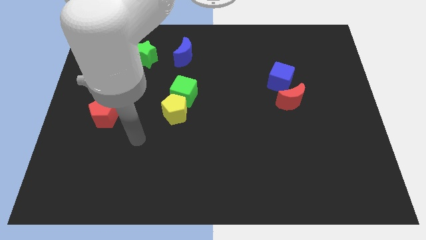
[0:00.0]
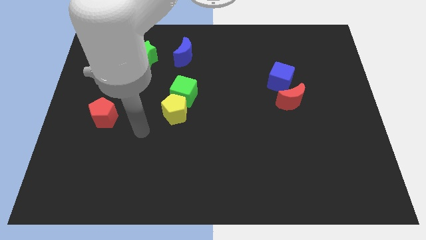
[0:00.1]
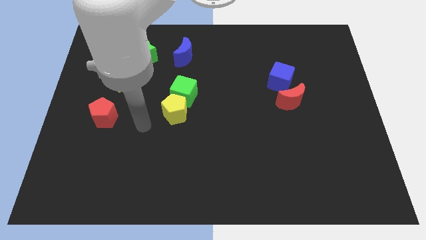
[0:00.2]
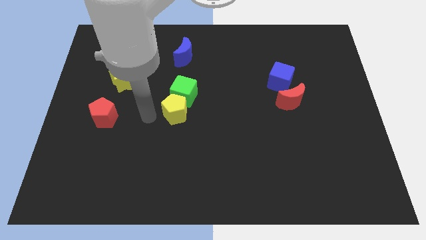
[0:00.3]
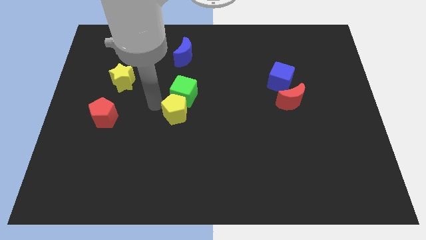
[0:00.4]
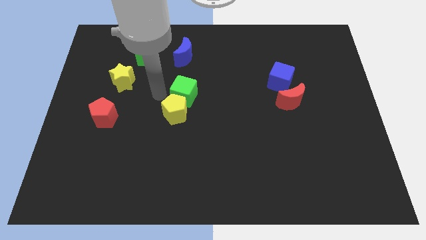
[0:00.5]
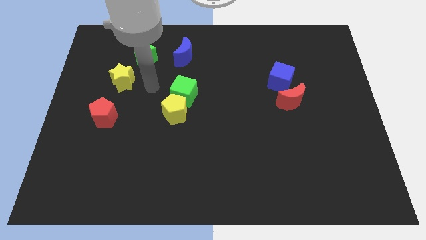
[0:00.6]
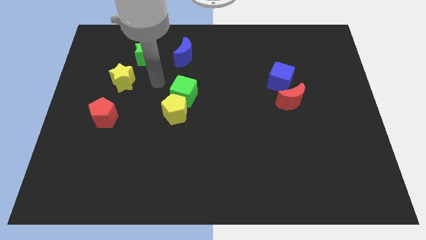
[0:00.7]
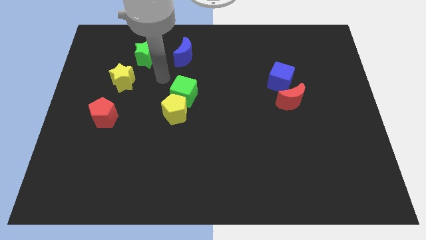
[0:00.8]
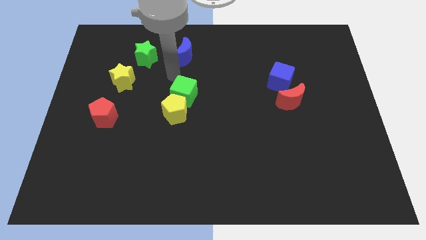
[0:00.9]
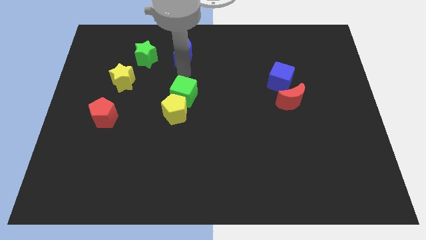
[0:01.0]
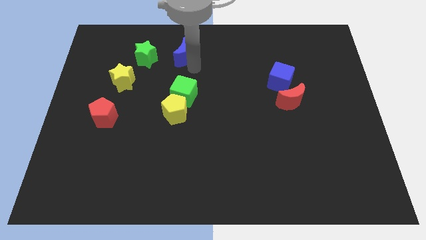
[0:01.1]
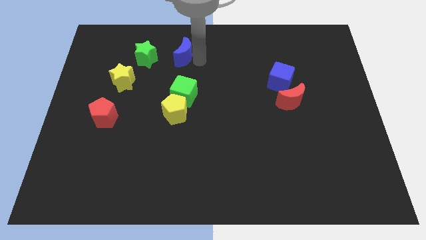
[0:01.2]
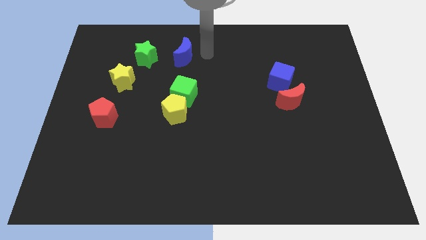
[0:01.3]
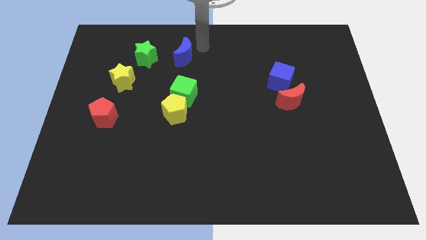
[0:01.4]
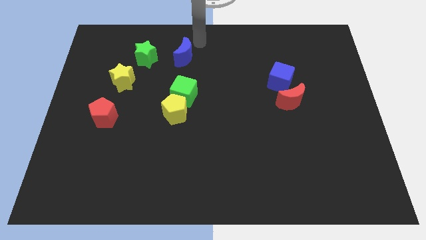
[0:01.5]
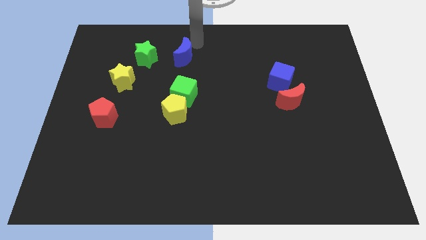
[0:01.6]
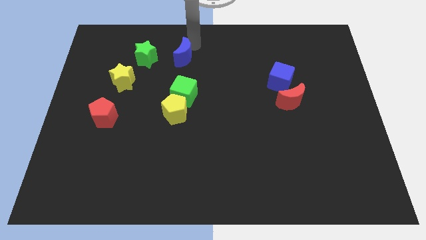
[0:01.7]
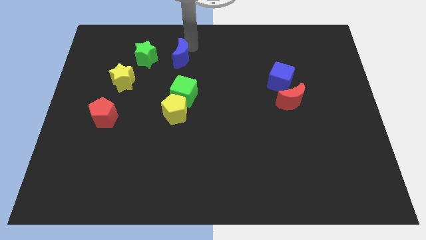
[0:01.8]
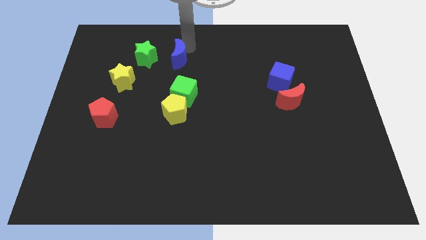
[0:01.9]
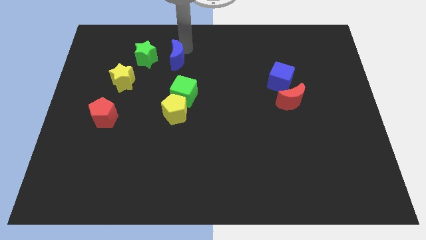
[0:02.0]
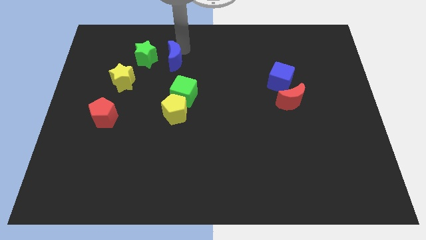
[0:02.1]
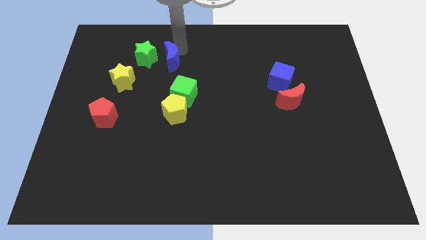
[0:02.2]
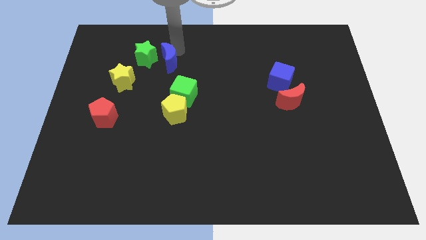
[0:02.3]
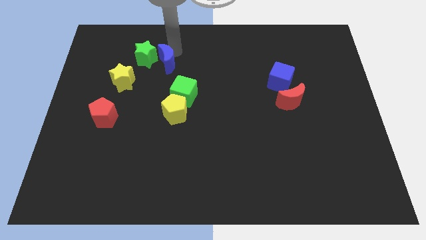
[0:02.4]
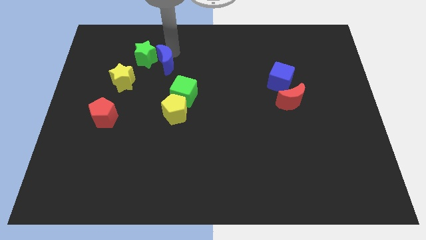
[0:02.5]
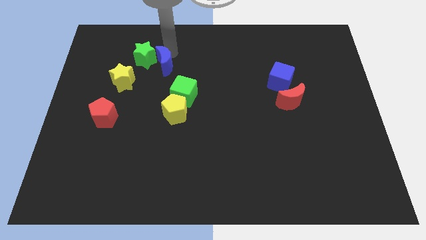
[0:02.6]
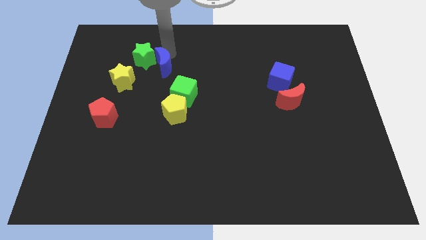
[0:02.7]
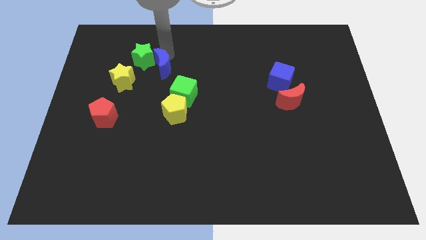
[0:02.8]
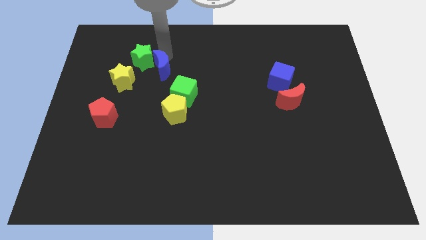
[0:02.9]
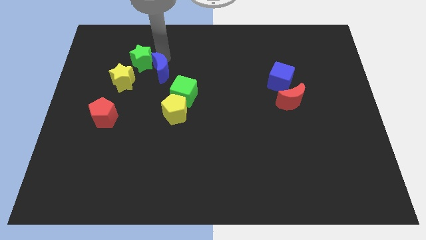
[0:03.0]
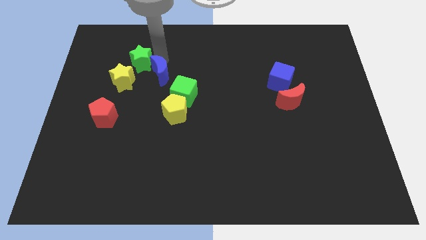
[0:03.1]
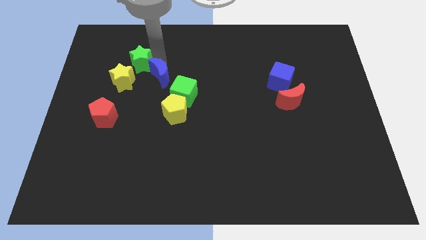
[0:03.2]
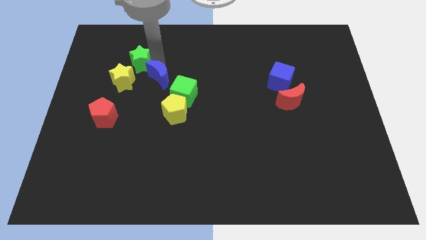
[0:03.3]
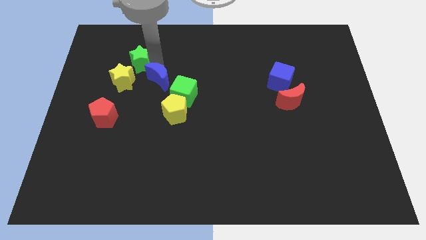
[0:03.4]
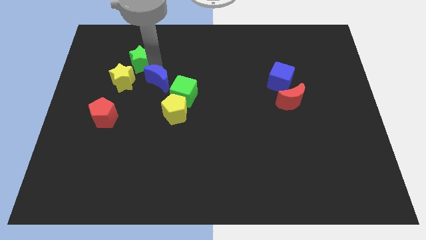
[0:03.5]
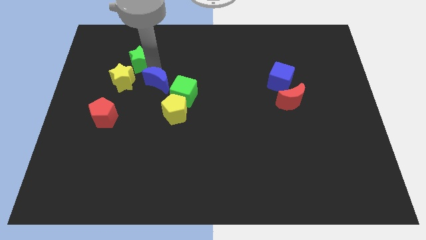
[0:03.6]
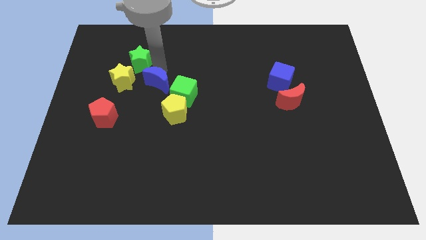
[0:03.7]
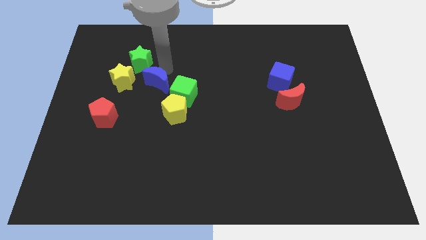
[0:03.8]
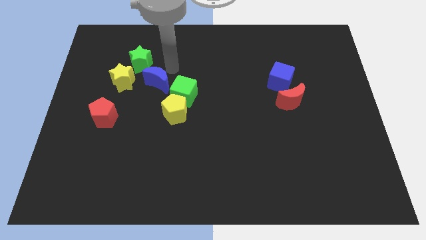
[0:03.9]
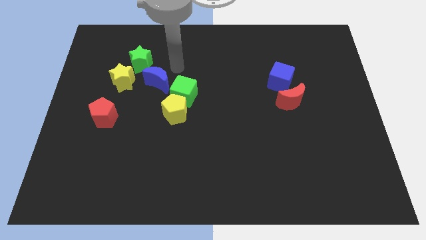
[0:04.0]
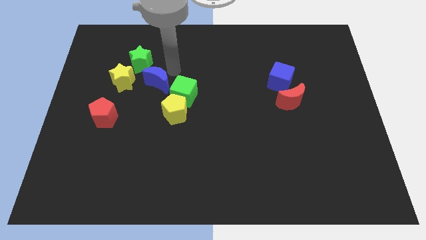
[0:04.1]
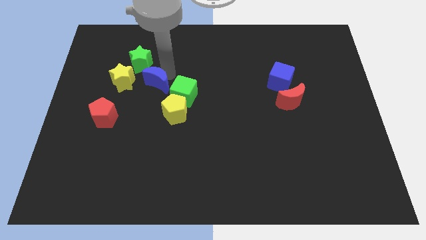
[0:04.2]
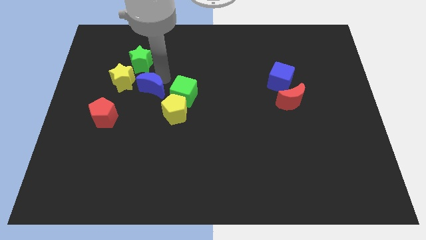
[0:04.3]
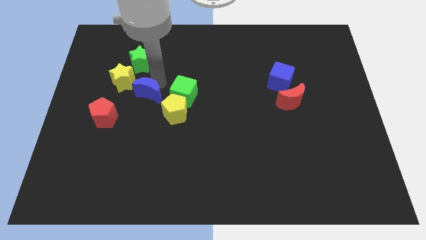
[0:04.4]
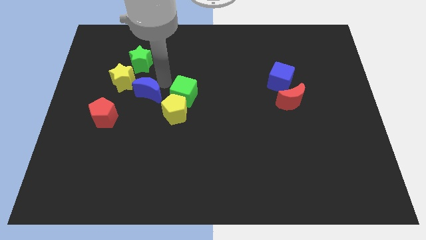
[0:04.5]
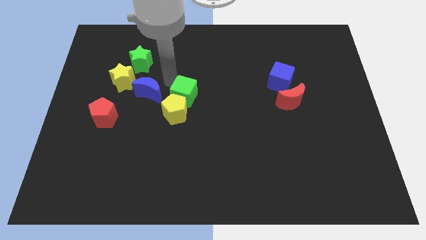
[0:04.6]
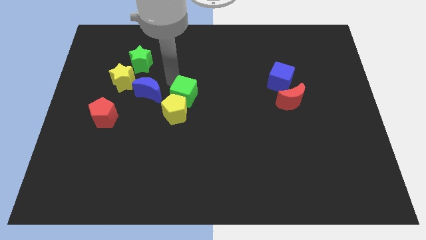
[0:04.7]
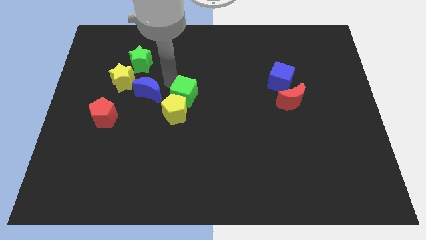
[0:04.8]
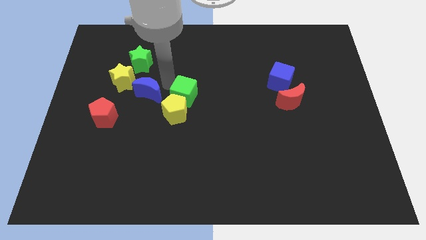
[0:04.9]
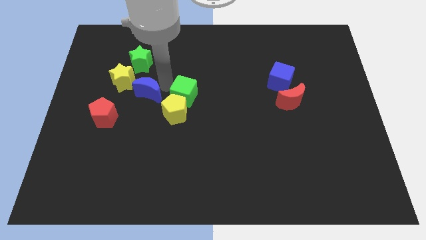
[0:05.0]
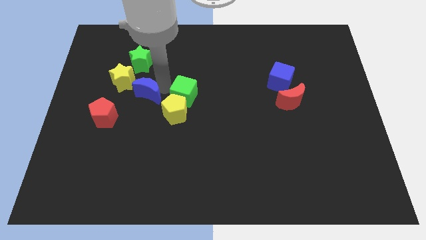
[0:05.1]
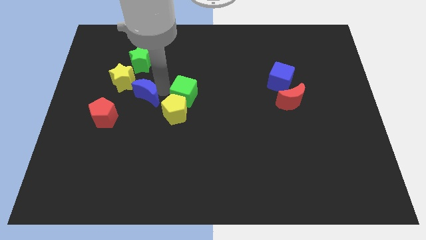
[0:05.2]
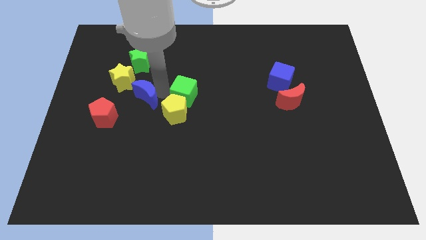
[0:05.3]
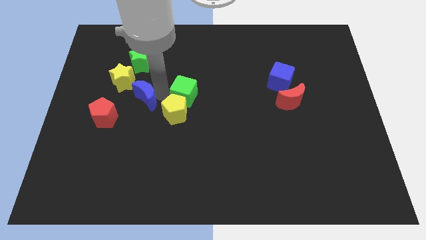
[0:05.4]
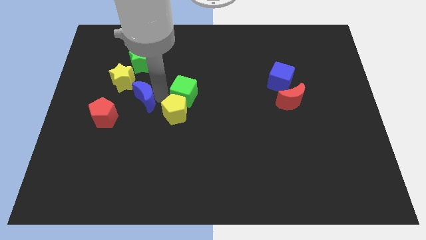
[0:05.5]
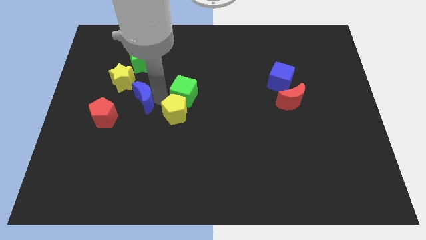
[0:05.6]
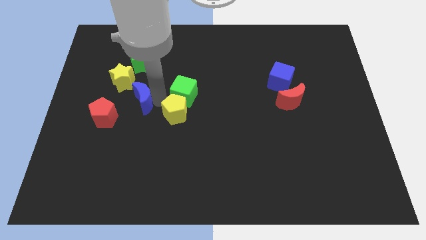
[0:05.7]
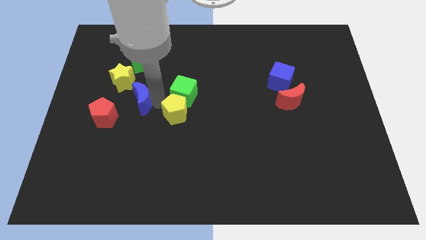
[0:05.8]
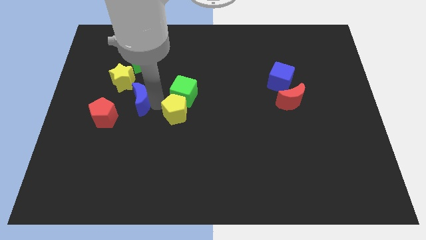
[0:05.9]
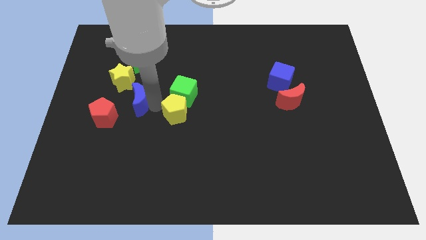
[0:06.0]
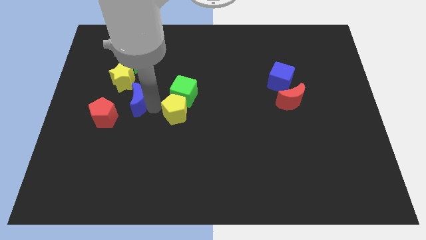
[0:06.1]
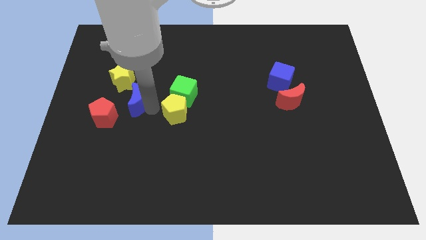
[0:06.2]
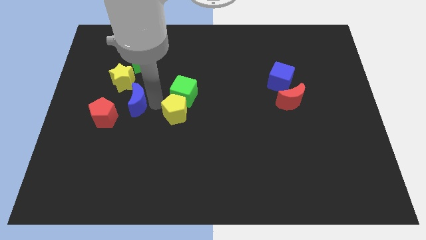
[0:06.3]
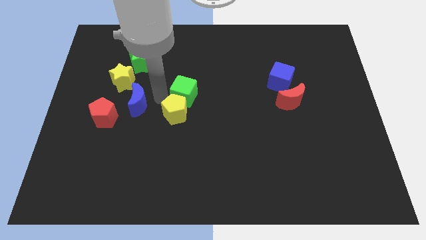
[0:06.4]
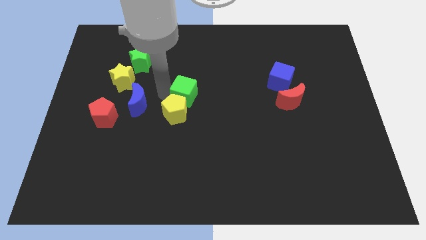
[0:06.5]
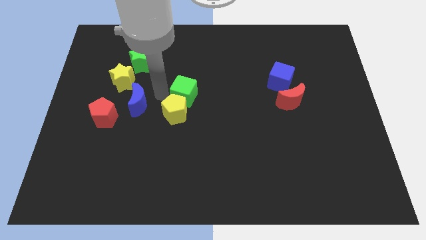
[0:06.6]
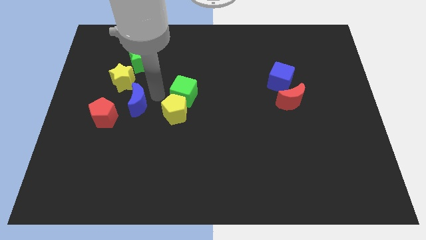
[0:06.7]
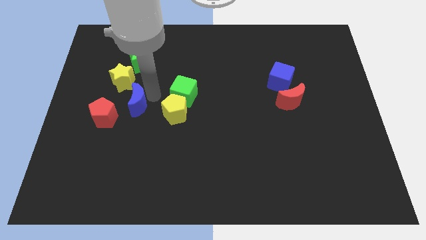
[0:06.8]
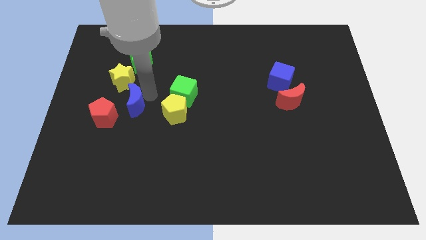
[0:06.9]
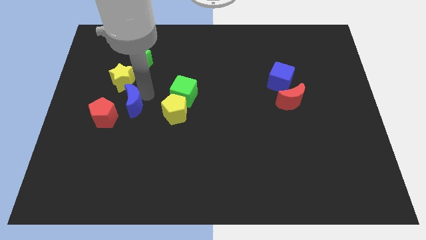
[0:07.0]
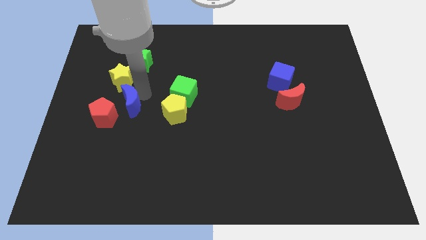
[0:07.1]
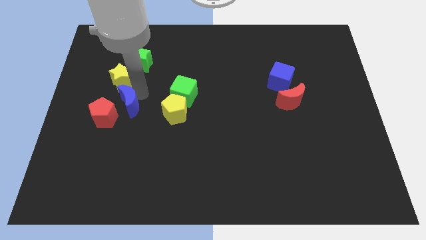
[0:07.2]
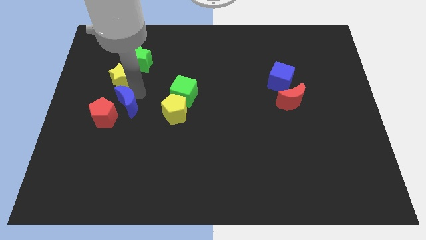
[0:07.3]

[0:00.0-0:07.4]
move the blue moon next to the red pentagon

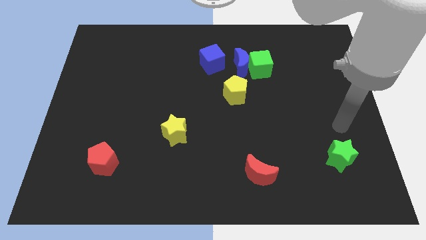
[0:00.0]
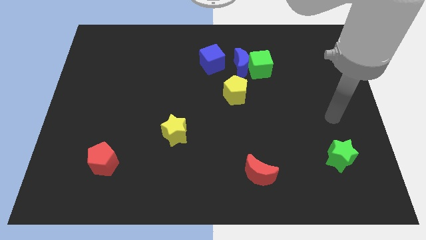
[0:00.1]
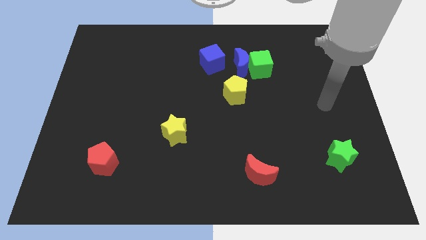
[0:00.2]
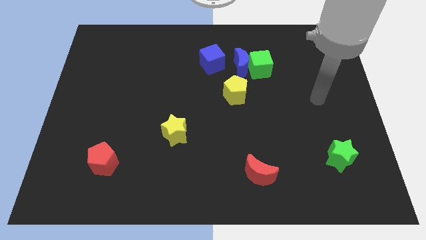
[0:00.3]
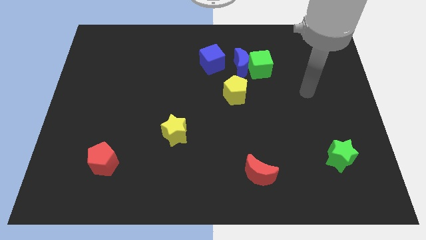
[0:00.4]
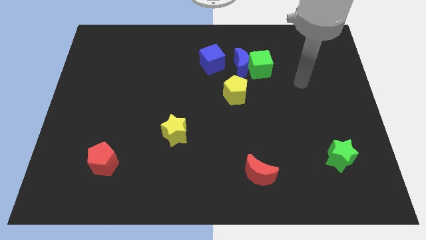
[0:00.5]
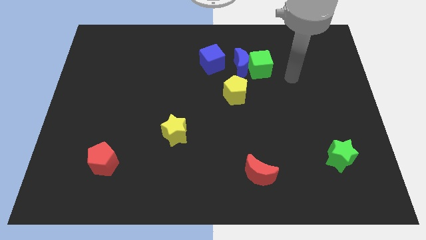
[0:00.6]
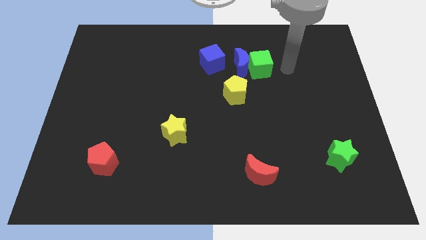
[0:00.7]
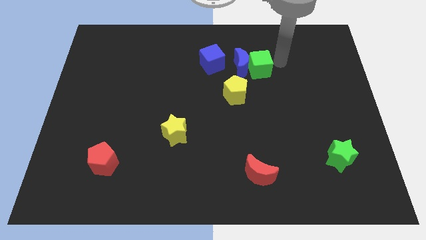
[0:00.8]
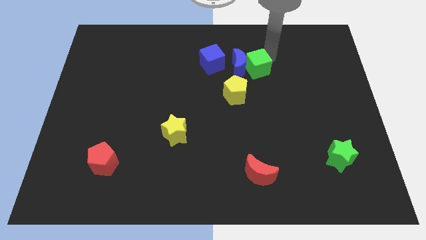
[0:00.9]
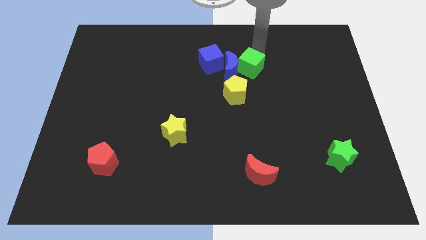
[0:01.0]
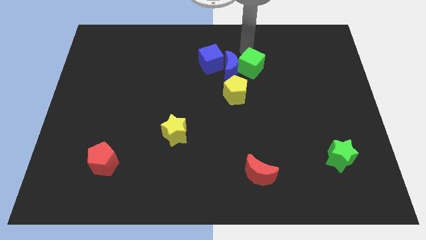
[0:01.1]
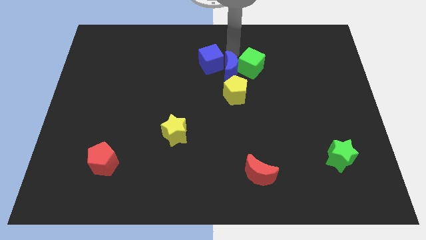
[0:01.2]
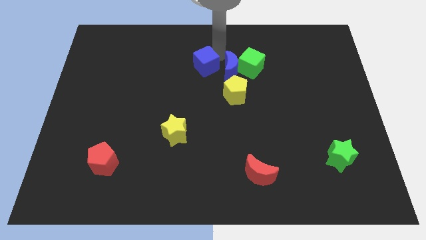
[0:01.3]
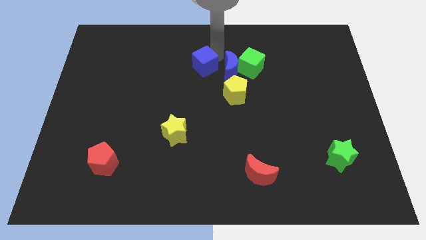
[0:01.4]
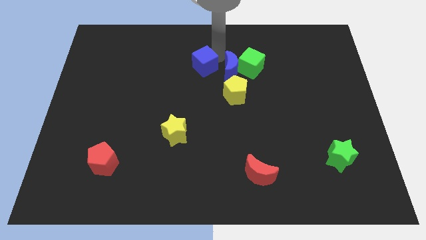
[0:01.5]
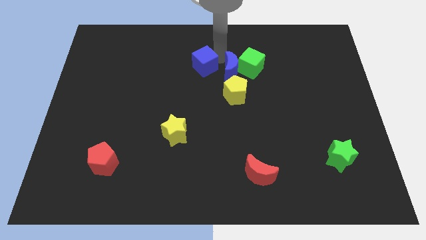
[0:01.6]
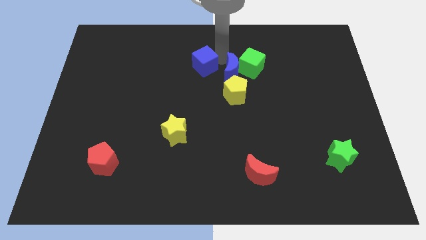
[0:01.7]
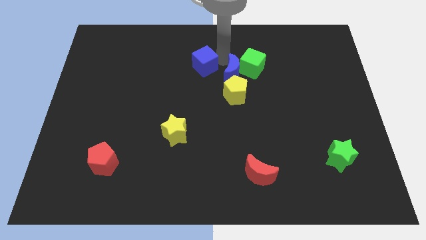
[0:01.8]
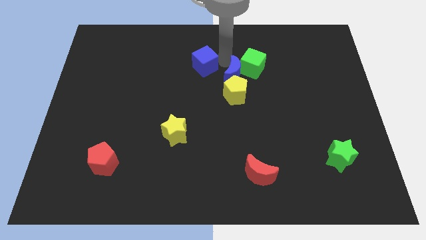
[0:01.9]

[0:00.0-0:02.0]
push the blue moon close to the yellow pentagon
